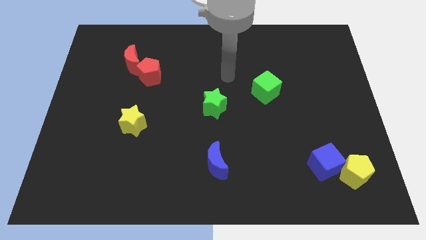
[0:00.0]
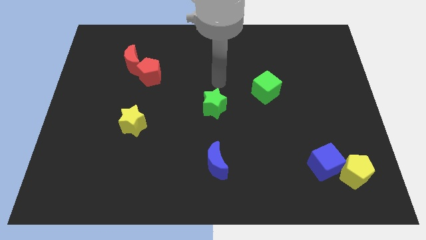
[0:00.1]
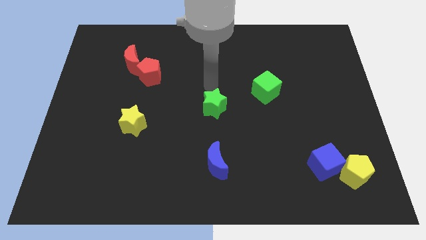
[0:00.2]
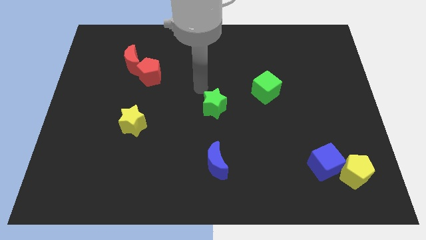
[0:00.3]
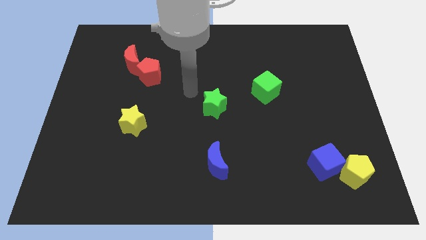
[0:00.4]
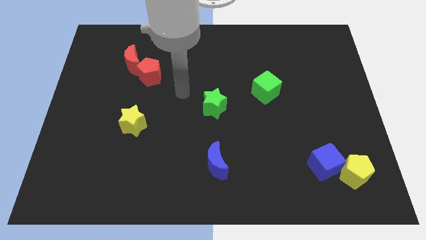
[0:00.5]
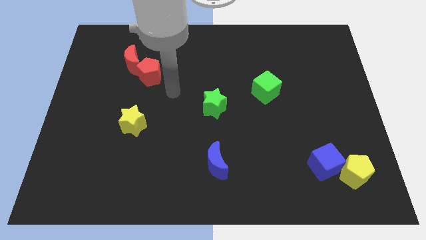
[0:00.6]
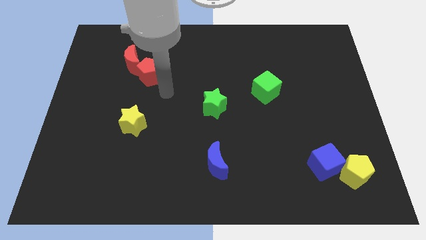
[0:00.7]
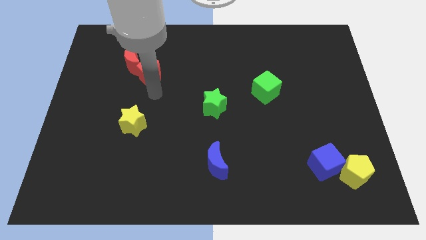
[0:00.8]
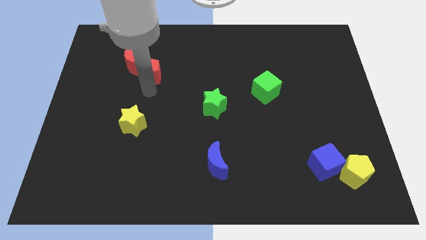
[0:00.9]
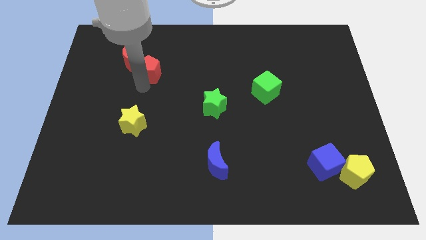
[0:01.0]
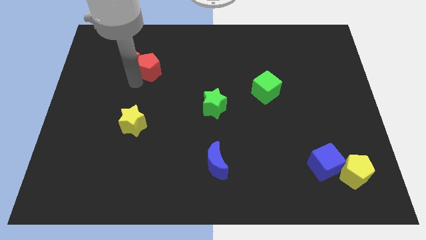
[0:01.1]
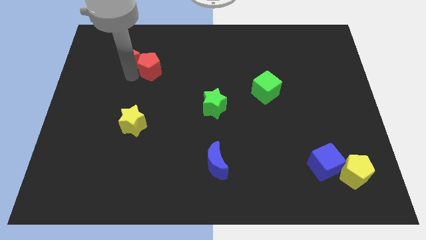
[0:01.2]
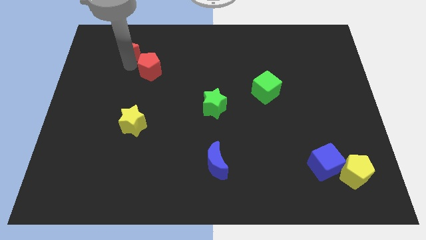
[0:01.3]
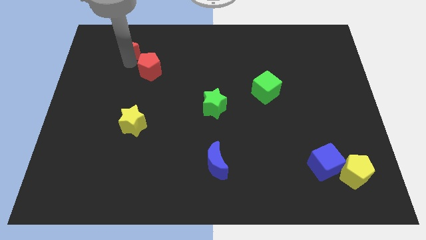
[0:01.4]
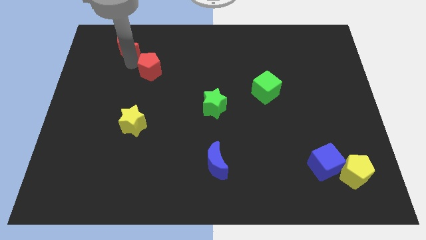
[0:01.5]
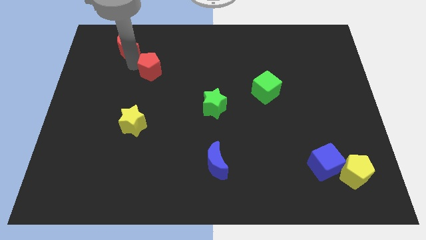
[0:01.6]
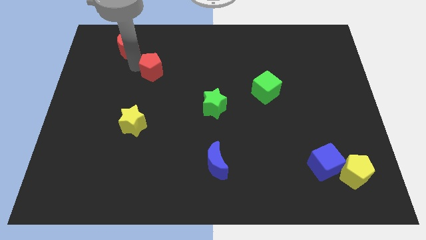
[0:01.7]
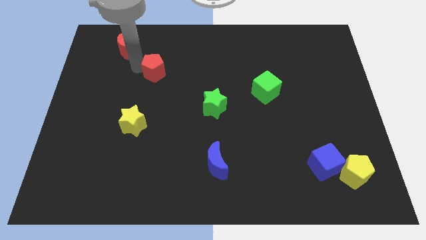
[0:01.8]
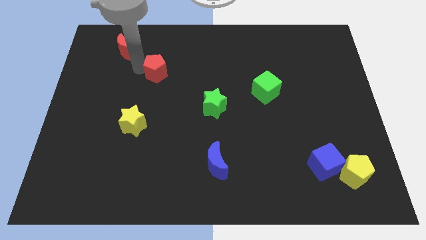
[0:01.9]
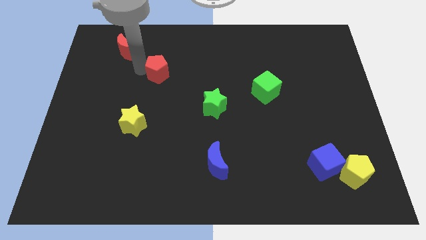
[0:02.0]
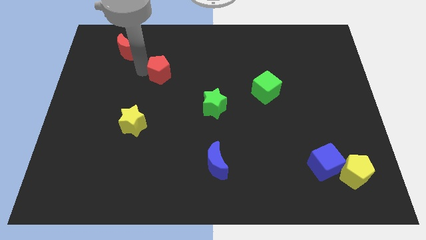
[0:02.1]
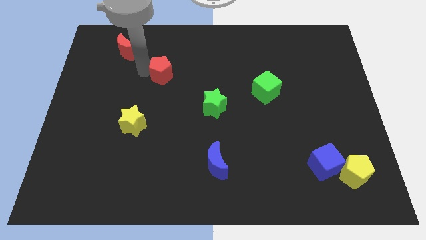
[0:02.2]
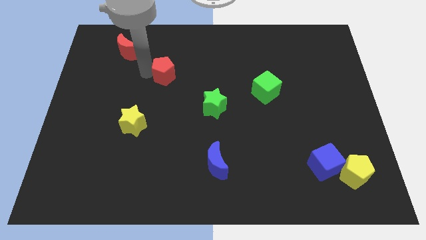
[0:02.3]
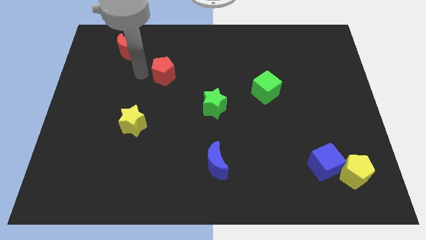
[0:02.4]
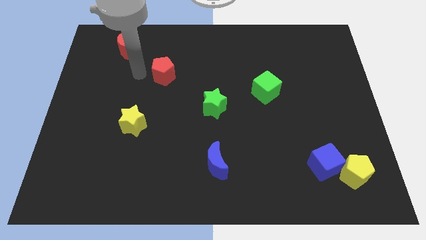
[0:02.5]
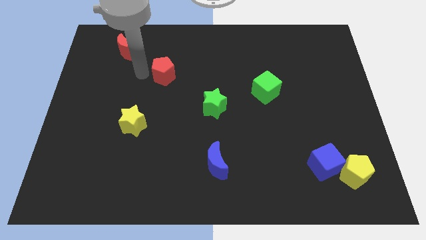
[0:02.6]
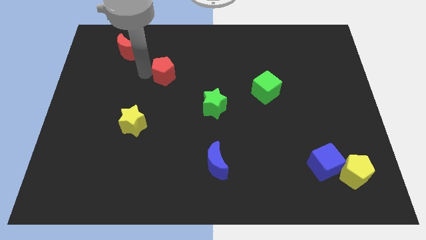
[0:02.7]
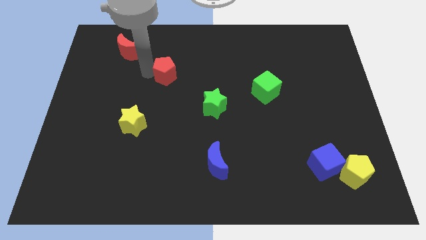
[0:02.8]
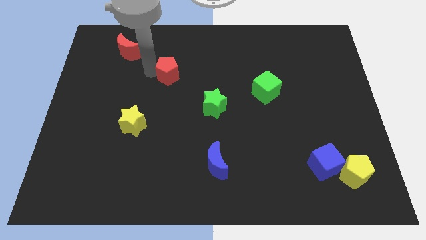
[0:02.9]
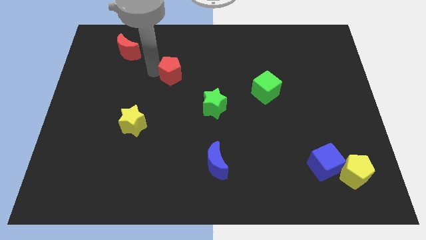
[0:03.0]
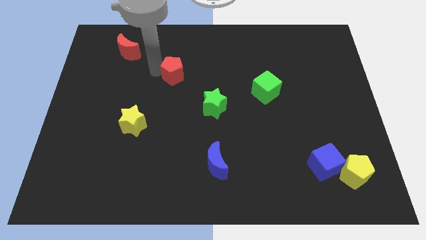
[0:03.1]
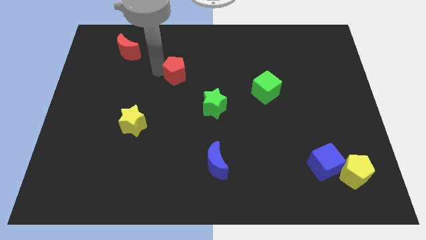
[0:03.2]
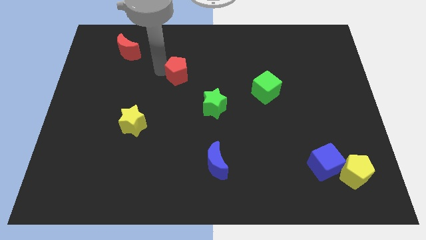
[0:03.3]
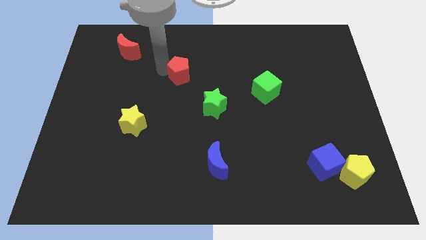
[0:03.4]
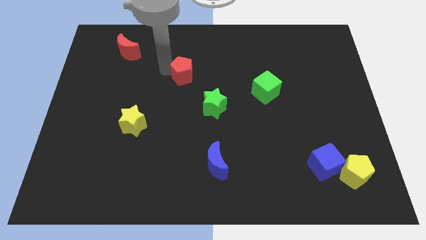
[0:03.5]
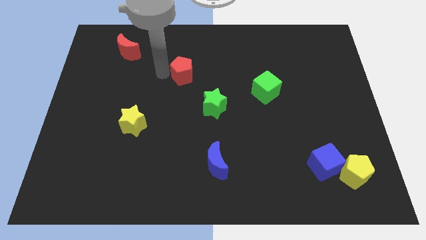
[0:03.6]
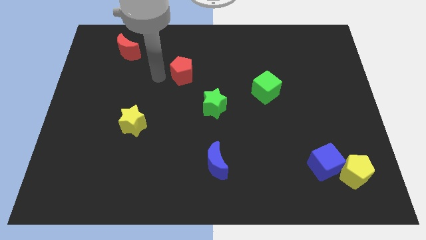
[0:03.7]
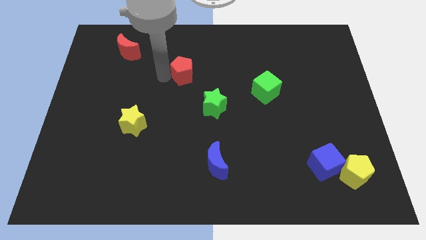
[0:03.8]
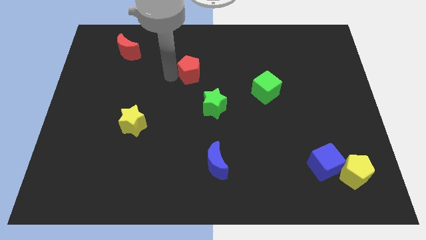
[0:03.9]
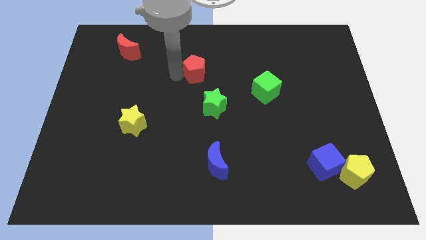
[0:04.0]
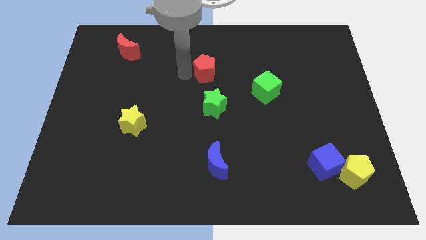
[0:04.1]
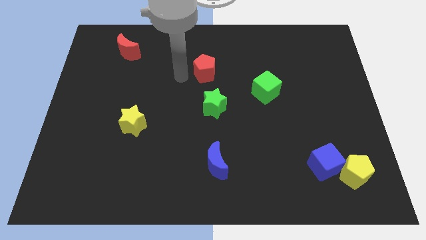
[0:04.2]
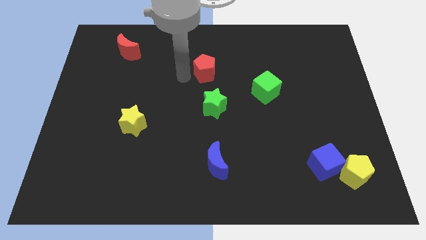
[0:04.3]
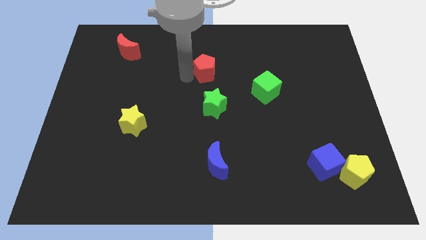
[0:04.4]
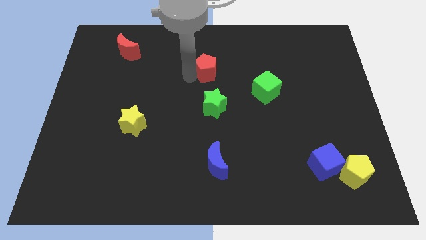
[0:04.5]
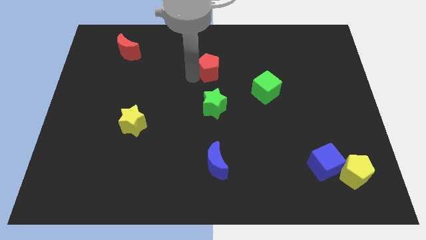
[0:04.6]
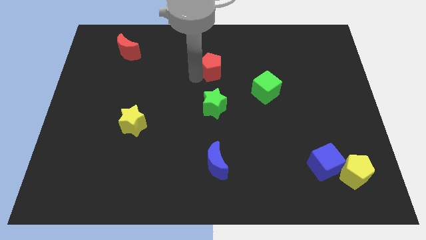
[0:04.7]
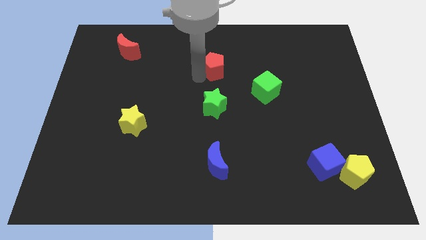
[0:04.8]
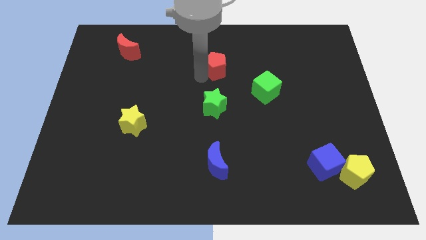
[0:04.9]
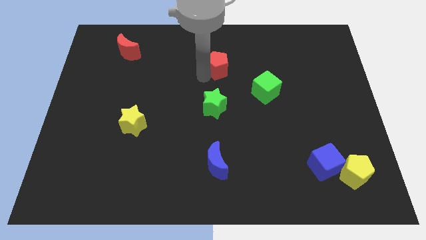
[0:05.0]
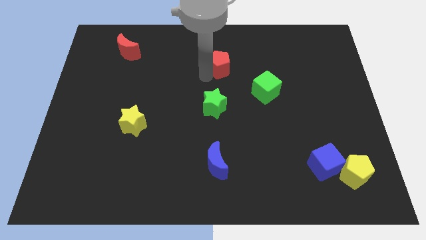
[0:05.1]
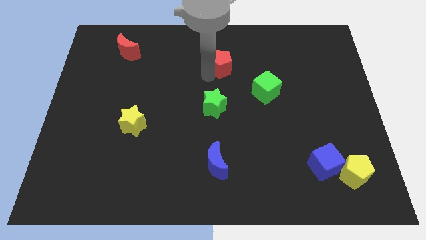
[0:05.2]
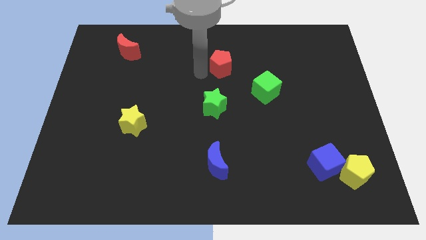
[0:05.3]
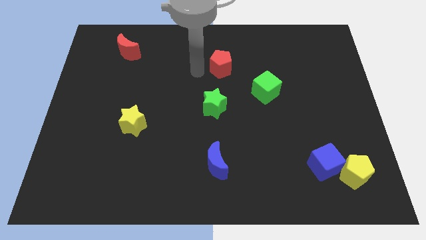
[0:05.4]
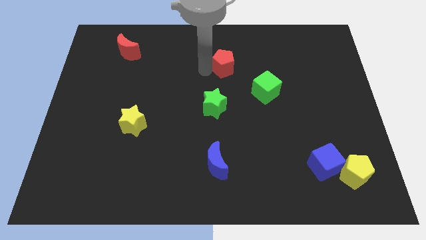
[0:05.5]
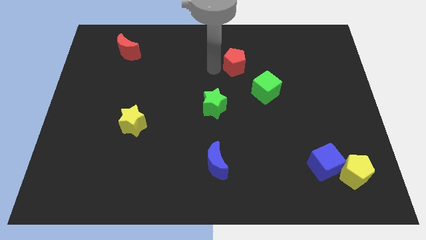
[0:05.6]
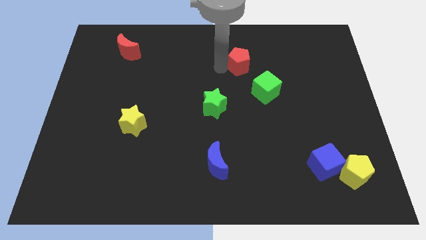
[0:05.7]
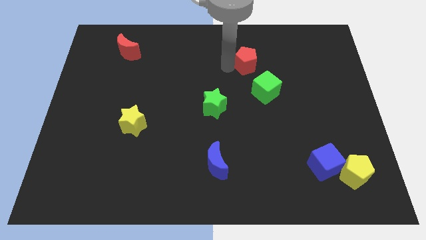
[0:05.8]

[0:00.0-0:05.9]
put the red pentagon to the top of the green cube

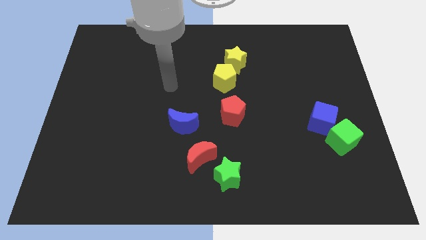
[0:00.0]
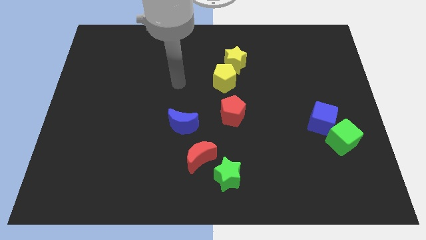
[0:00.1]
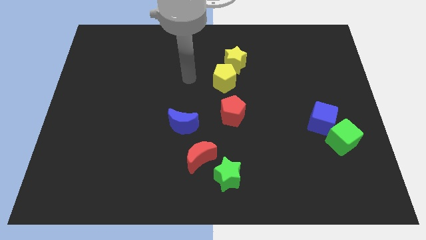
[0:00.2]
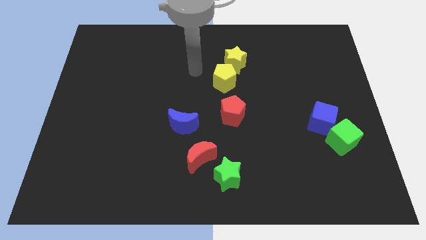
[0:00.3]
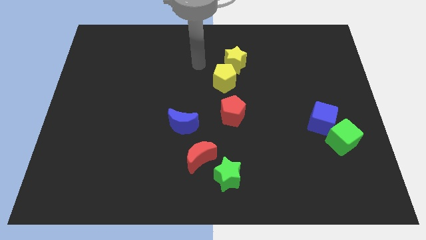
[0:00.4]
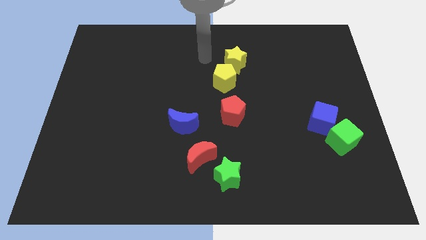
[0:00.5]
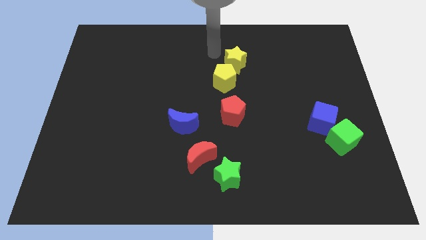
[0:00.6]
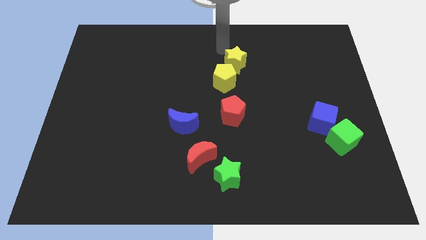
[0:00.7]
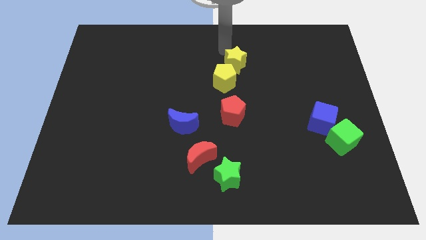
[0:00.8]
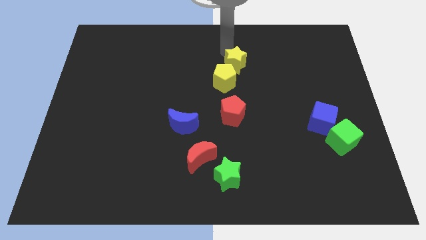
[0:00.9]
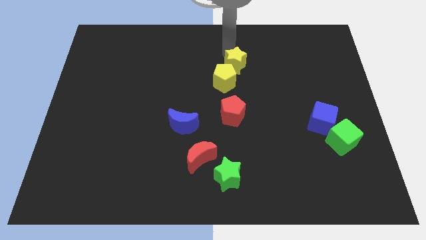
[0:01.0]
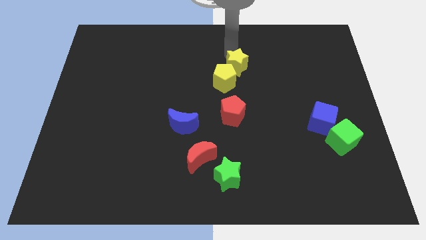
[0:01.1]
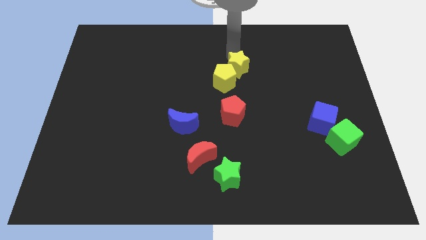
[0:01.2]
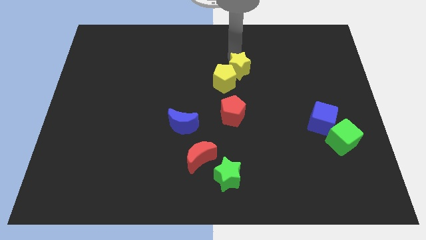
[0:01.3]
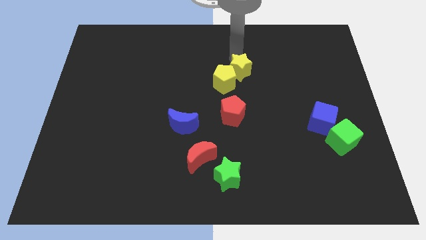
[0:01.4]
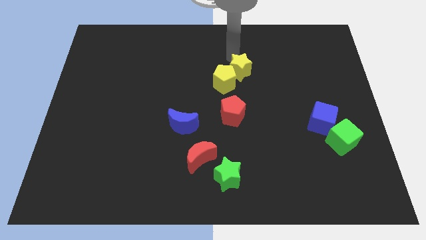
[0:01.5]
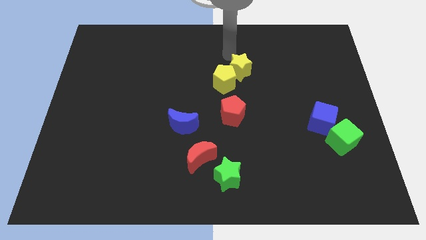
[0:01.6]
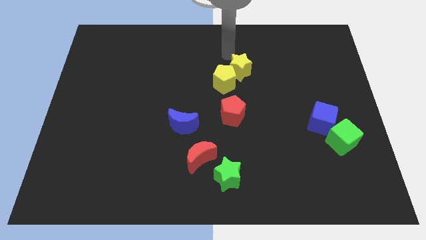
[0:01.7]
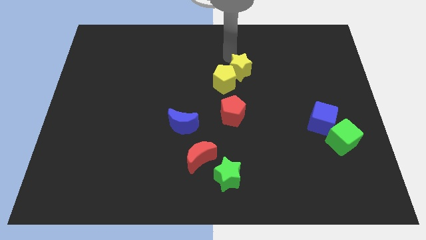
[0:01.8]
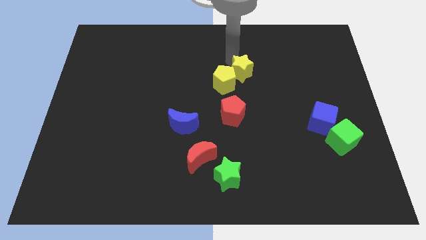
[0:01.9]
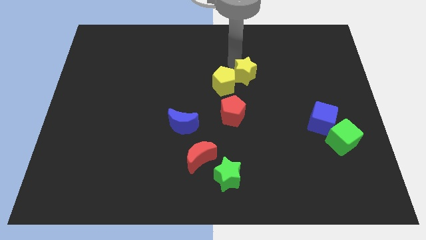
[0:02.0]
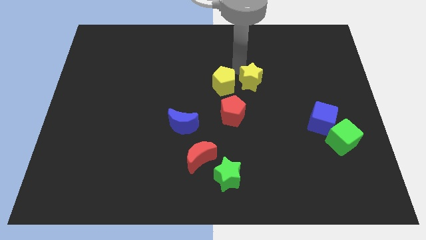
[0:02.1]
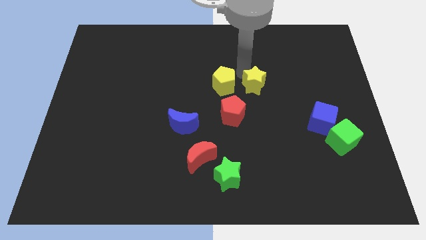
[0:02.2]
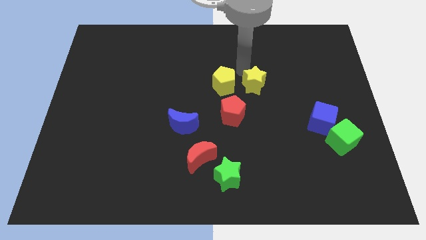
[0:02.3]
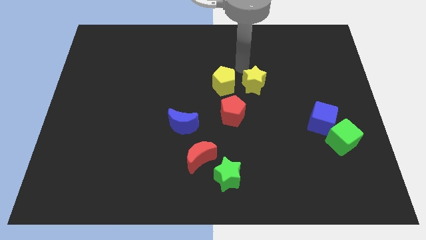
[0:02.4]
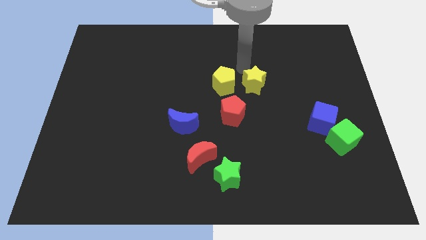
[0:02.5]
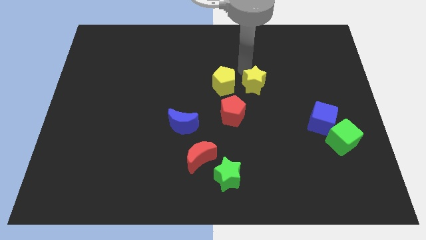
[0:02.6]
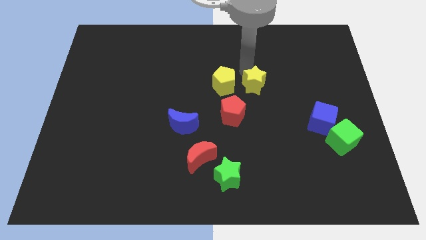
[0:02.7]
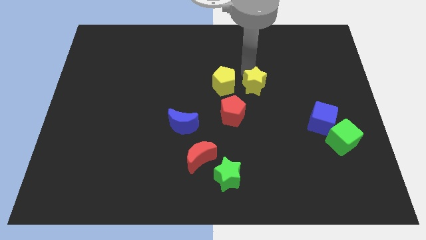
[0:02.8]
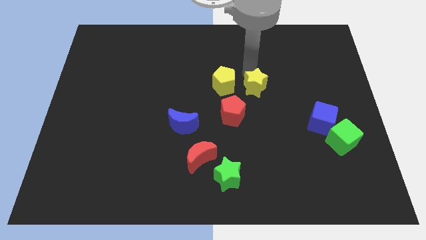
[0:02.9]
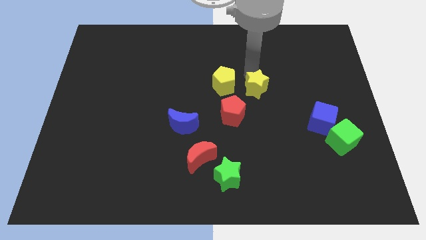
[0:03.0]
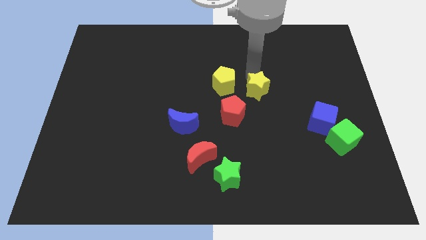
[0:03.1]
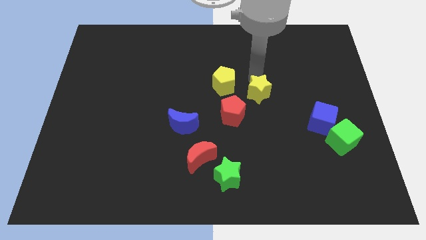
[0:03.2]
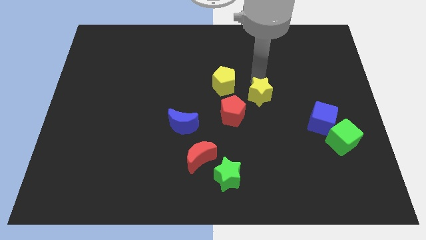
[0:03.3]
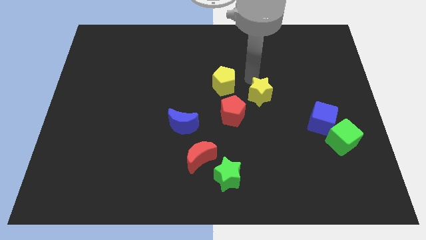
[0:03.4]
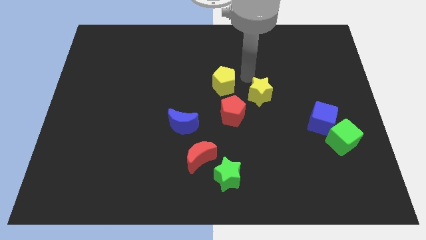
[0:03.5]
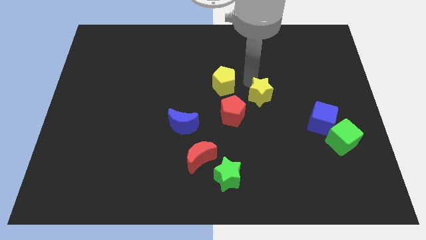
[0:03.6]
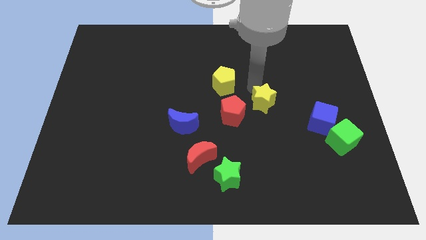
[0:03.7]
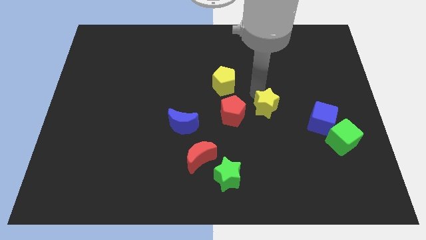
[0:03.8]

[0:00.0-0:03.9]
put the yellow star just left of the blue cube
